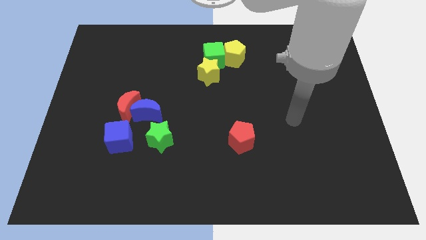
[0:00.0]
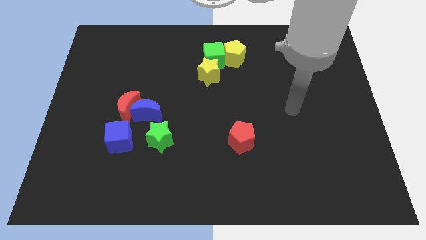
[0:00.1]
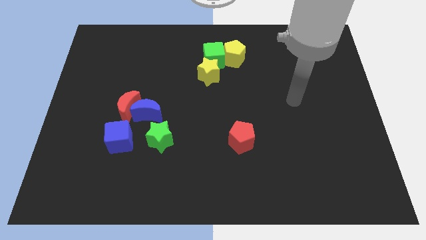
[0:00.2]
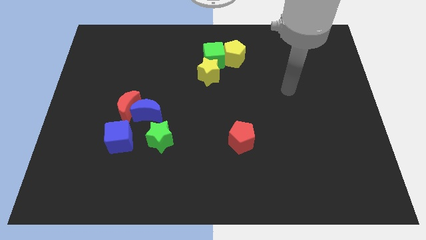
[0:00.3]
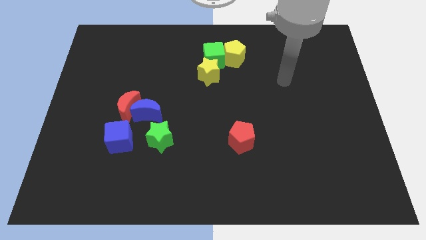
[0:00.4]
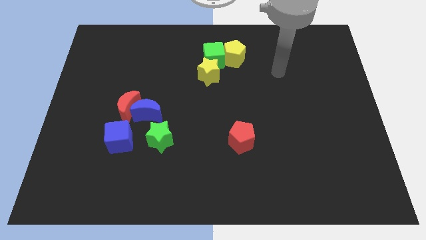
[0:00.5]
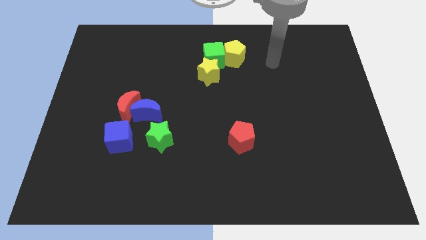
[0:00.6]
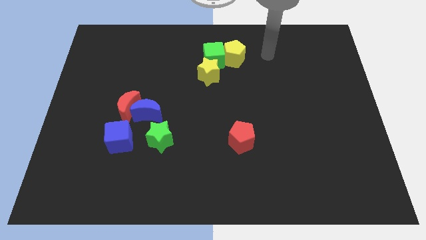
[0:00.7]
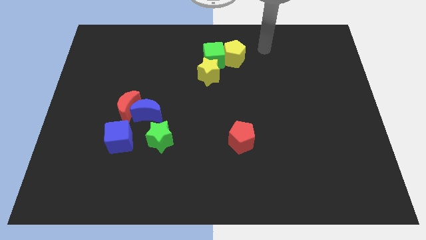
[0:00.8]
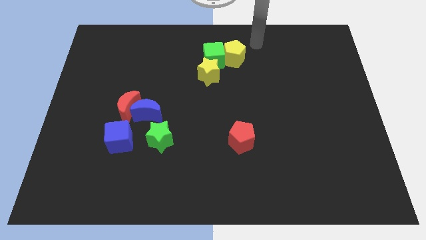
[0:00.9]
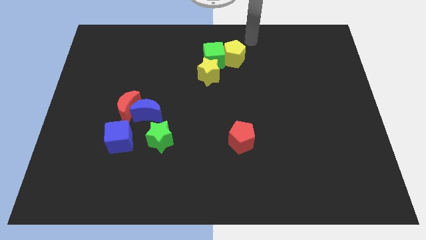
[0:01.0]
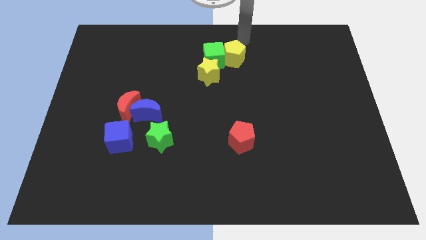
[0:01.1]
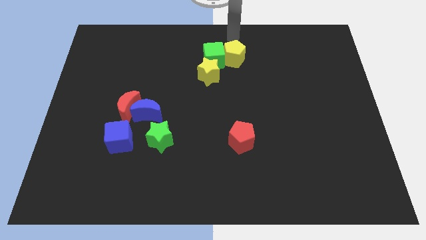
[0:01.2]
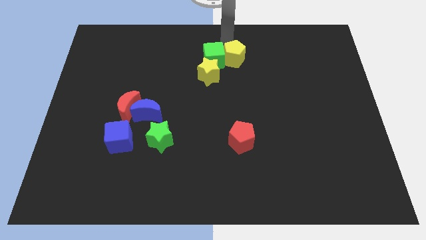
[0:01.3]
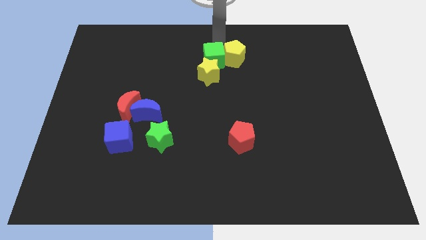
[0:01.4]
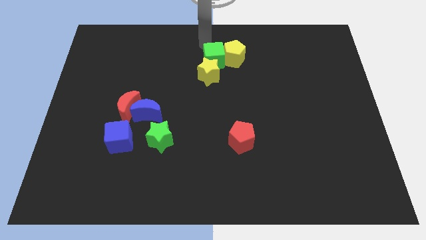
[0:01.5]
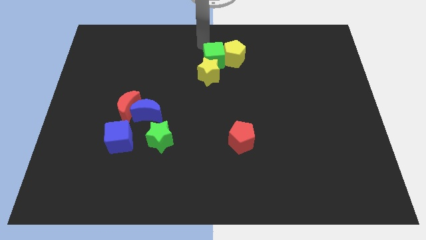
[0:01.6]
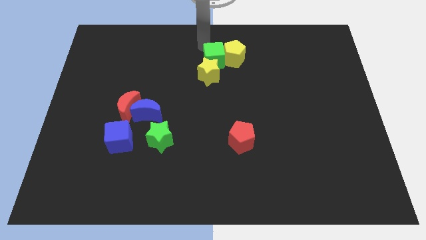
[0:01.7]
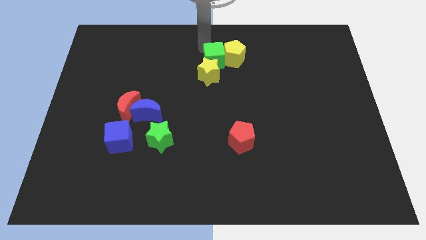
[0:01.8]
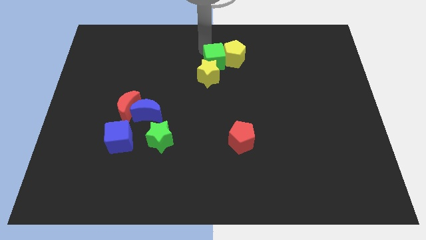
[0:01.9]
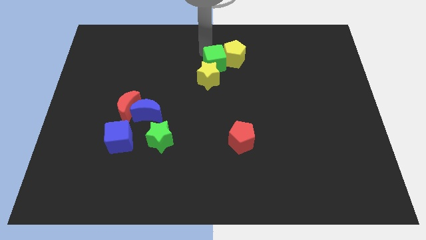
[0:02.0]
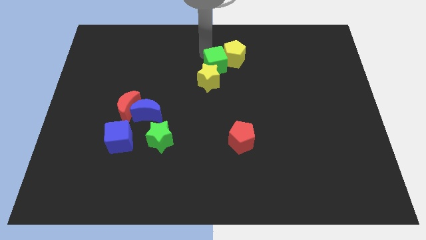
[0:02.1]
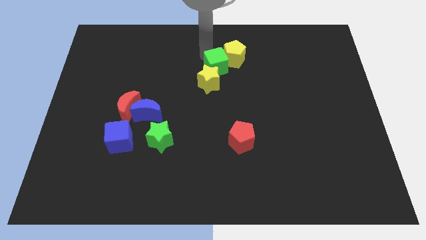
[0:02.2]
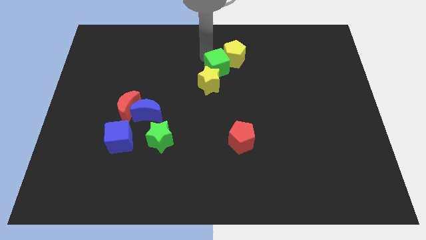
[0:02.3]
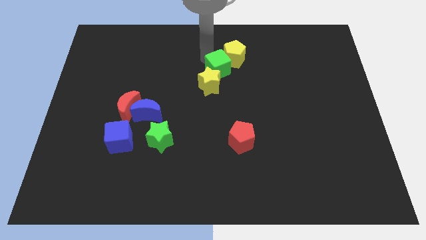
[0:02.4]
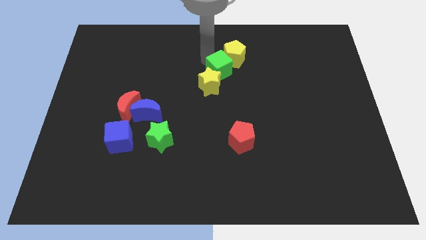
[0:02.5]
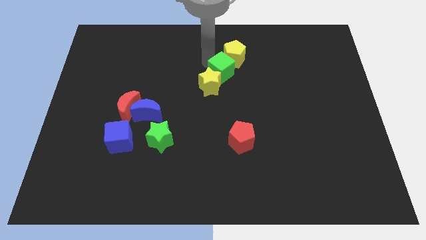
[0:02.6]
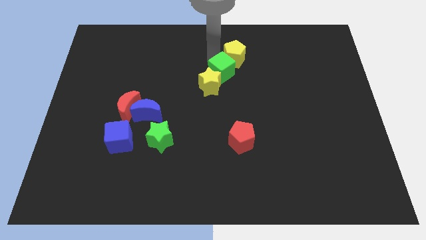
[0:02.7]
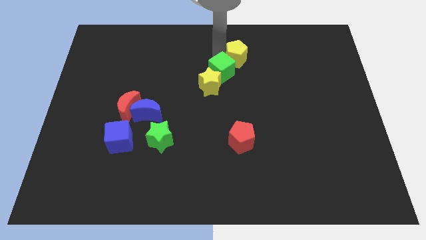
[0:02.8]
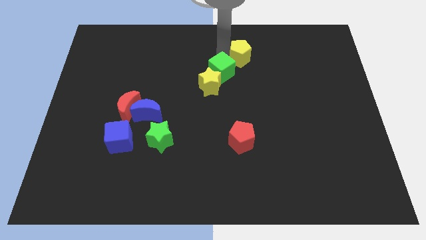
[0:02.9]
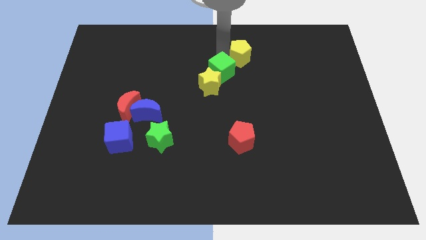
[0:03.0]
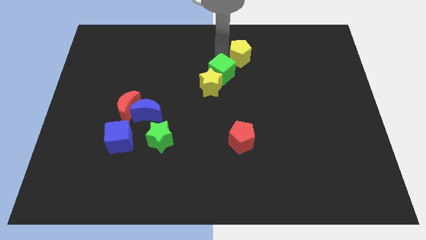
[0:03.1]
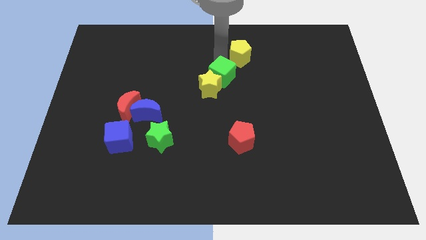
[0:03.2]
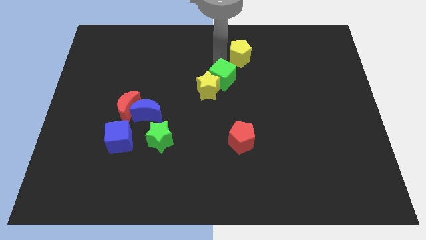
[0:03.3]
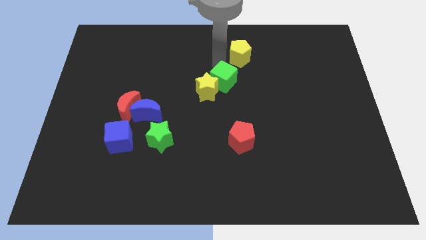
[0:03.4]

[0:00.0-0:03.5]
push the green cube slightly downwards

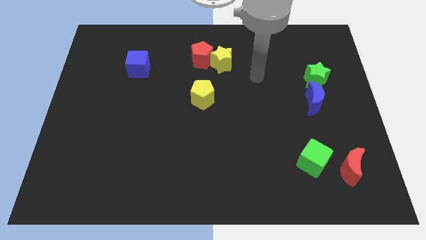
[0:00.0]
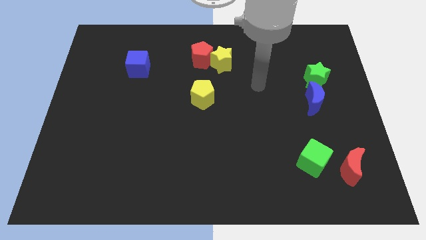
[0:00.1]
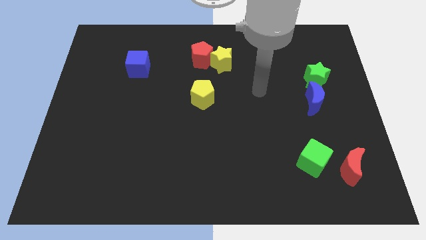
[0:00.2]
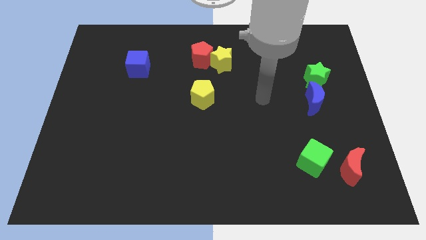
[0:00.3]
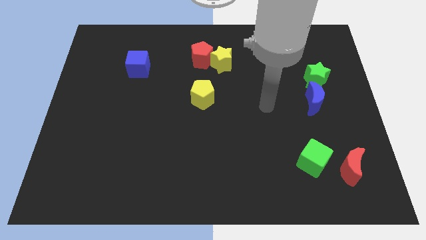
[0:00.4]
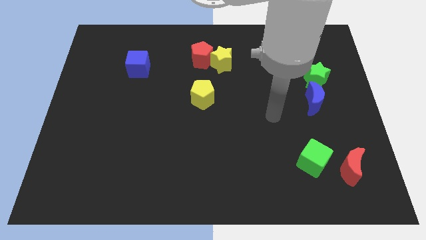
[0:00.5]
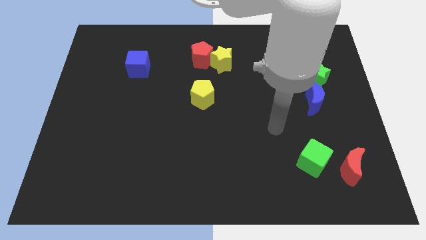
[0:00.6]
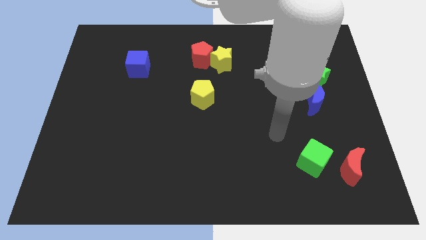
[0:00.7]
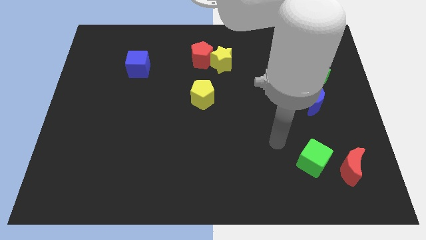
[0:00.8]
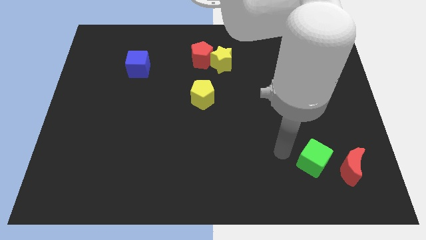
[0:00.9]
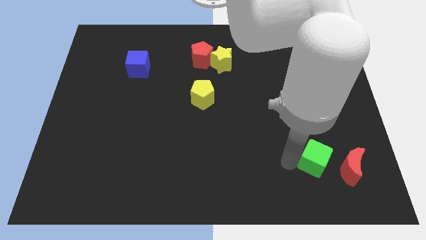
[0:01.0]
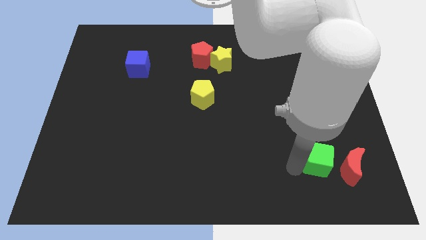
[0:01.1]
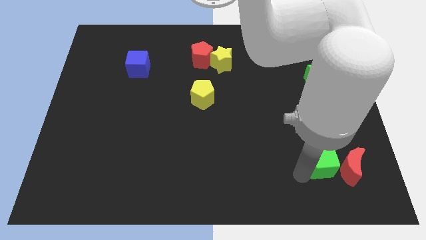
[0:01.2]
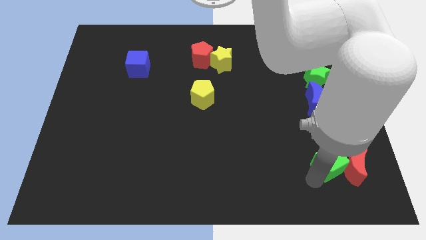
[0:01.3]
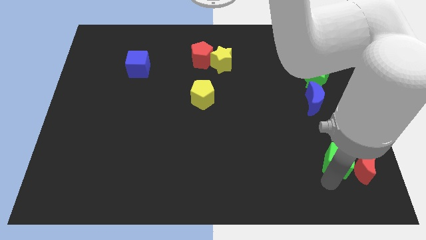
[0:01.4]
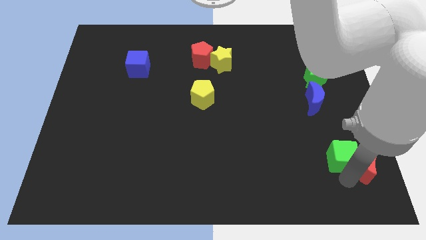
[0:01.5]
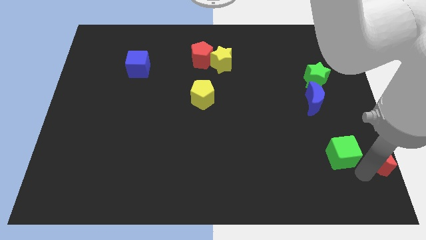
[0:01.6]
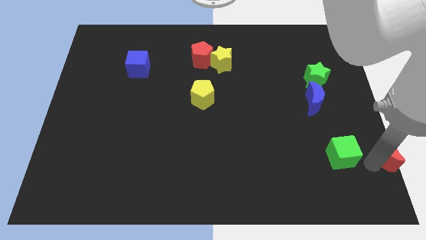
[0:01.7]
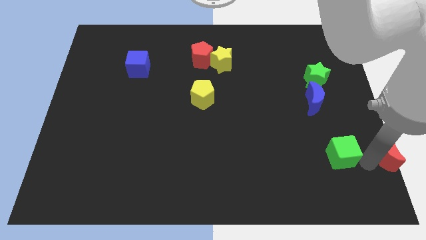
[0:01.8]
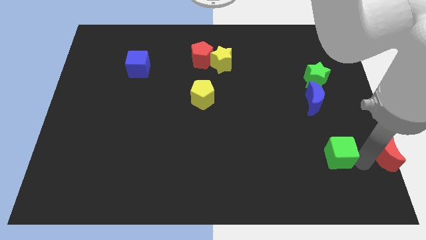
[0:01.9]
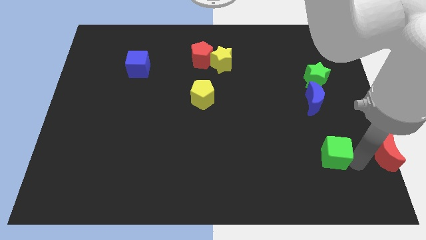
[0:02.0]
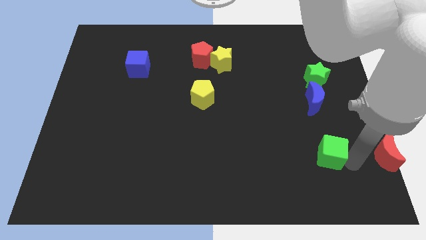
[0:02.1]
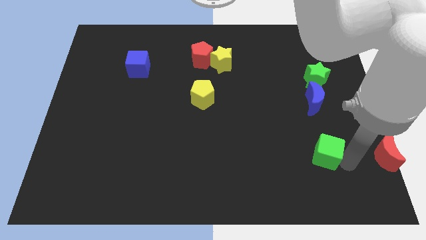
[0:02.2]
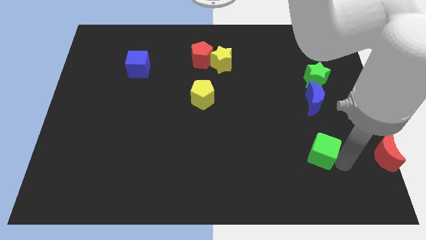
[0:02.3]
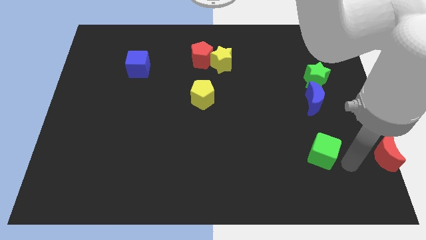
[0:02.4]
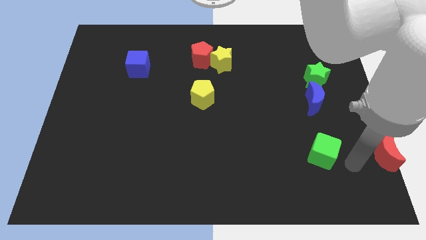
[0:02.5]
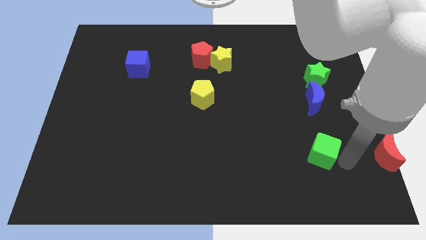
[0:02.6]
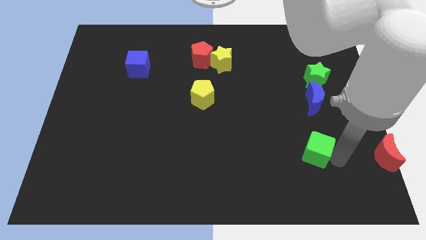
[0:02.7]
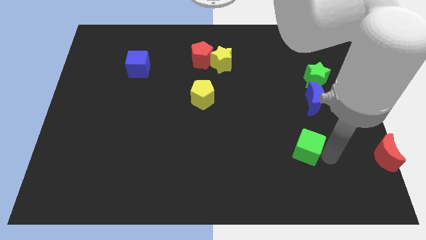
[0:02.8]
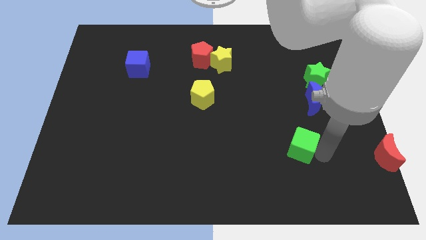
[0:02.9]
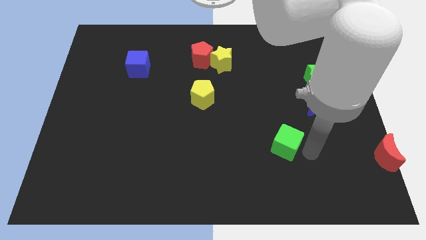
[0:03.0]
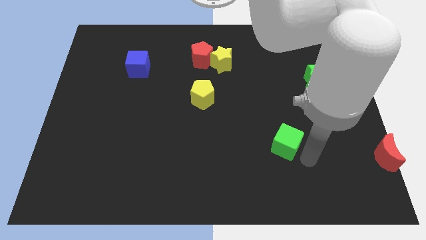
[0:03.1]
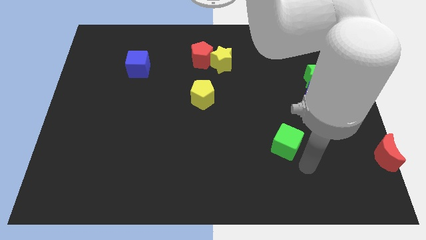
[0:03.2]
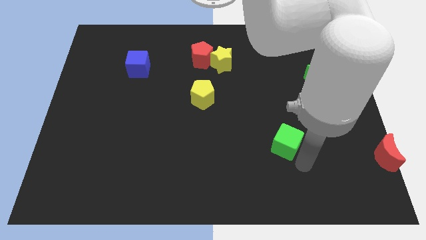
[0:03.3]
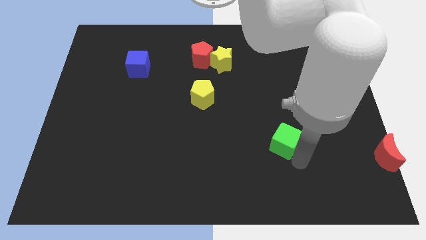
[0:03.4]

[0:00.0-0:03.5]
move the green cube somewhat up and then to the left

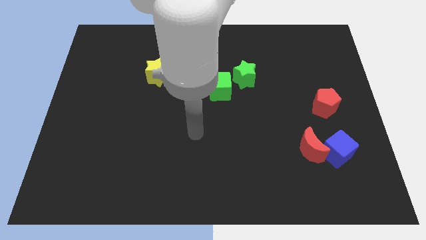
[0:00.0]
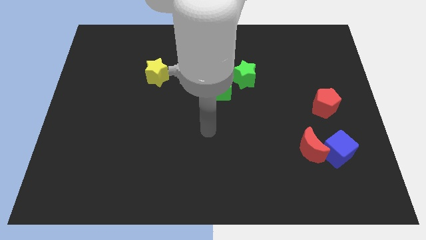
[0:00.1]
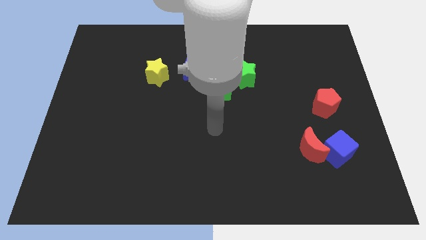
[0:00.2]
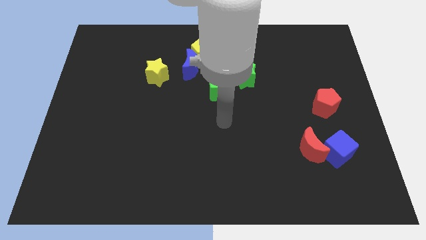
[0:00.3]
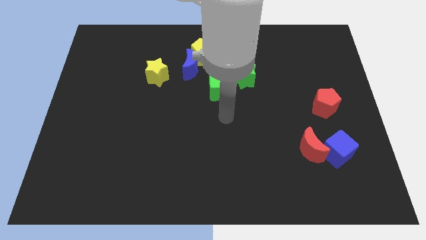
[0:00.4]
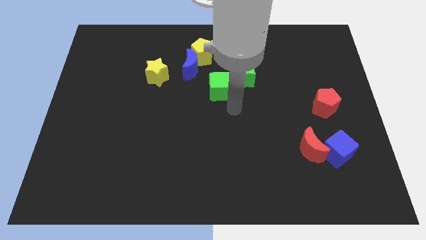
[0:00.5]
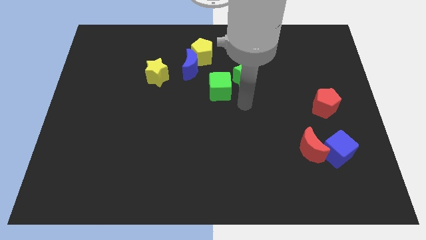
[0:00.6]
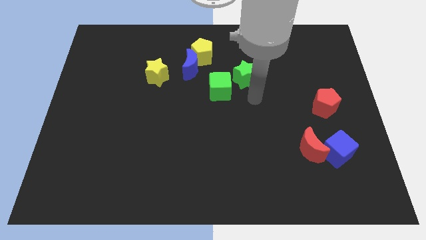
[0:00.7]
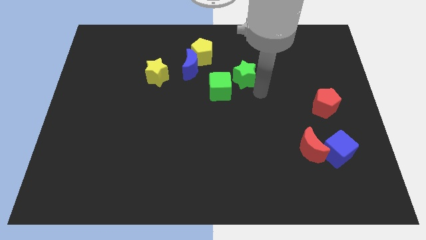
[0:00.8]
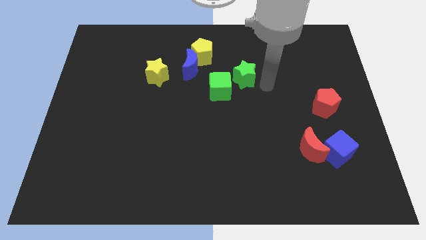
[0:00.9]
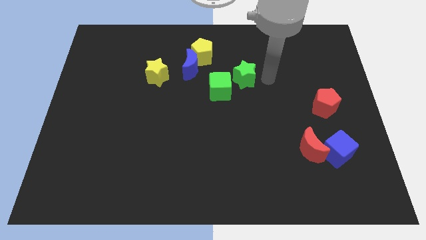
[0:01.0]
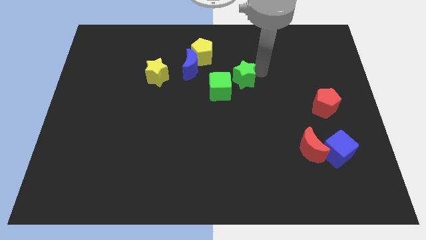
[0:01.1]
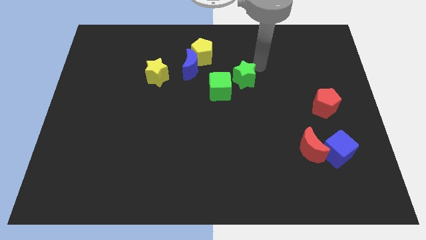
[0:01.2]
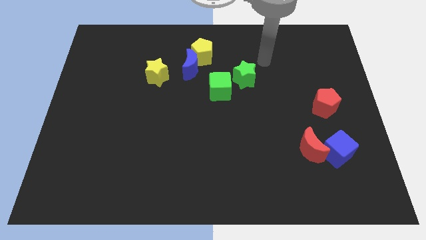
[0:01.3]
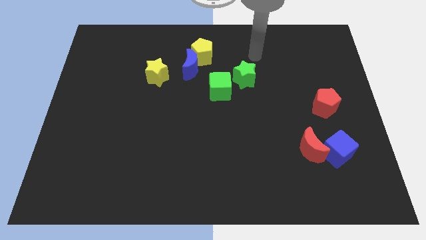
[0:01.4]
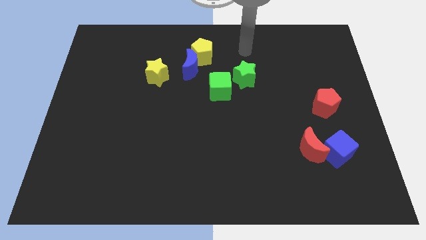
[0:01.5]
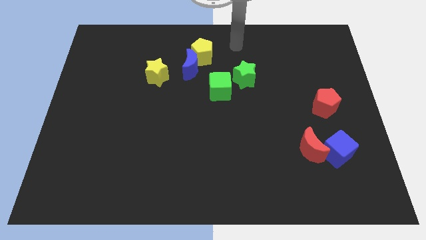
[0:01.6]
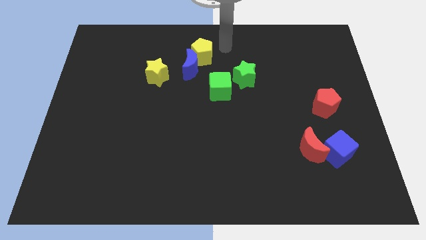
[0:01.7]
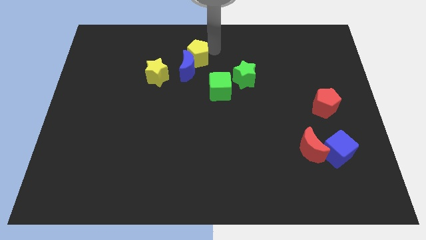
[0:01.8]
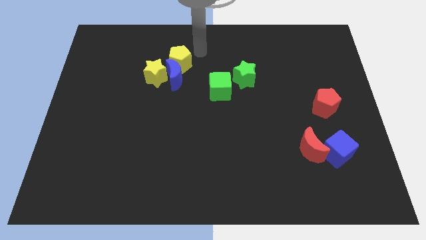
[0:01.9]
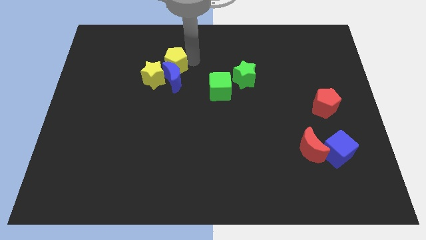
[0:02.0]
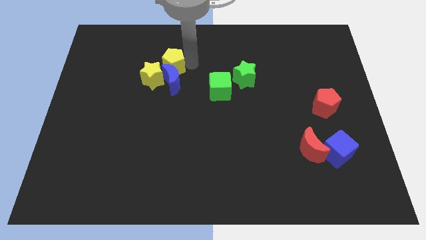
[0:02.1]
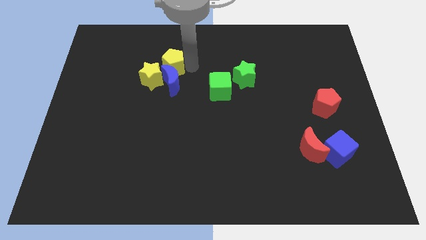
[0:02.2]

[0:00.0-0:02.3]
push the blue moon downwards and to the left a little bit
